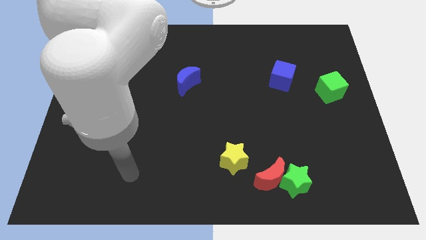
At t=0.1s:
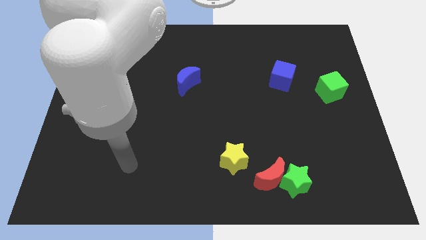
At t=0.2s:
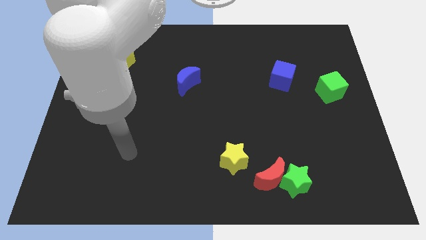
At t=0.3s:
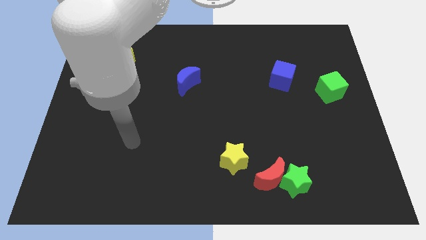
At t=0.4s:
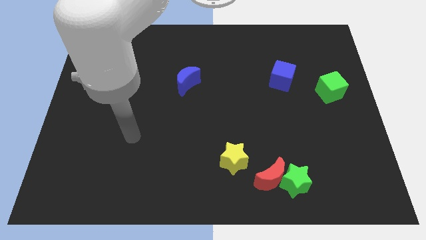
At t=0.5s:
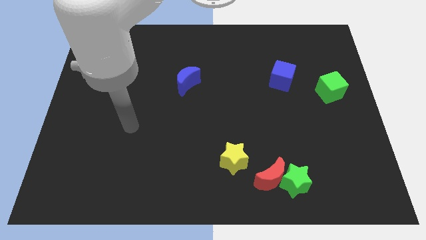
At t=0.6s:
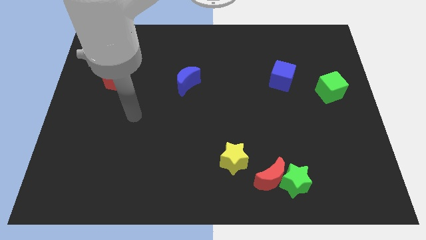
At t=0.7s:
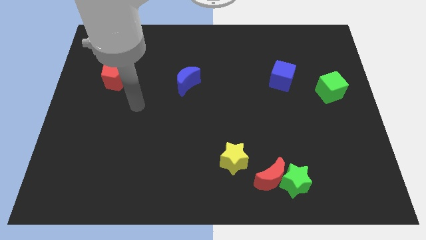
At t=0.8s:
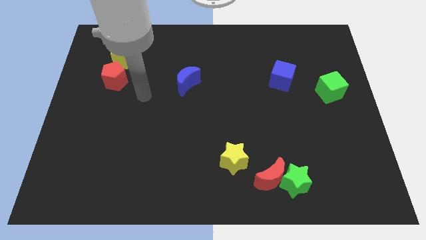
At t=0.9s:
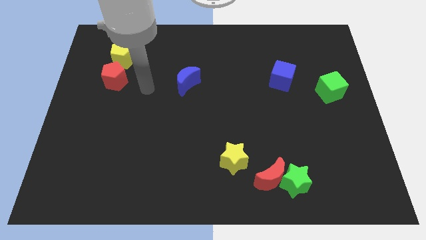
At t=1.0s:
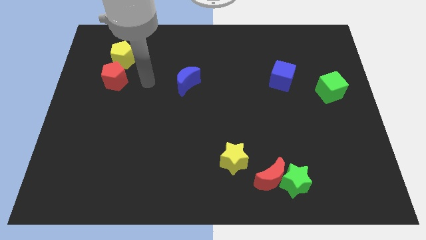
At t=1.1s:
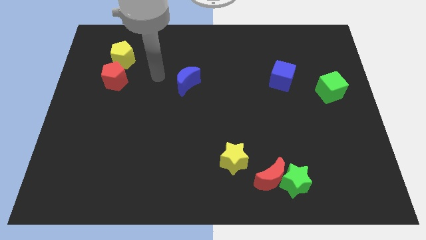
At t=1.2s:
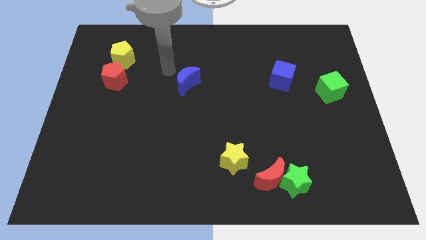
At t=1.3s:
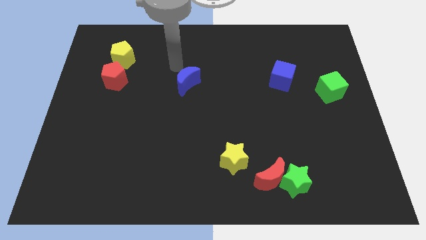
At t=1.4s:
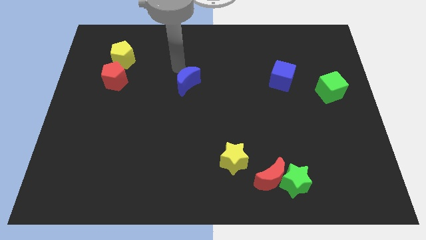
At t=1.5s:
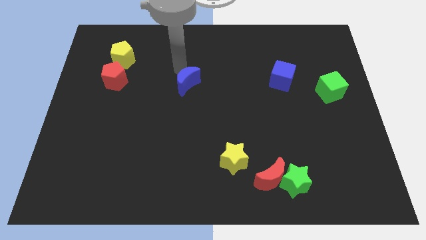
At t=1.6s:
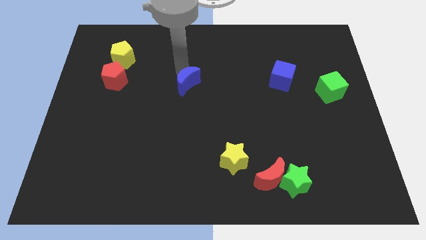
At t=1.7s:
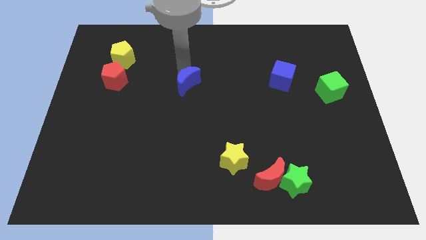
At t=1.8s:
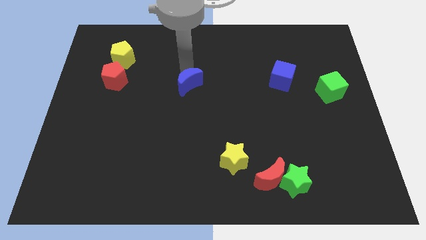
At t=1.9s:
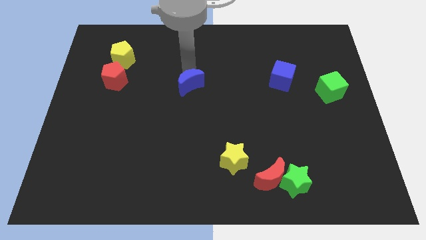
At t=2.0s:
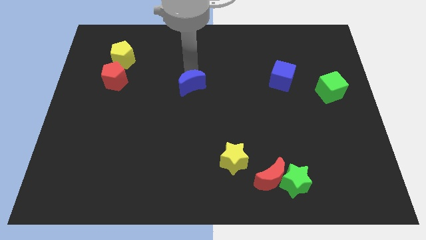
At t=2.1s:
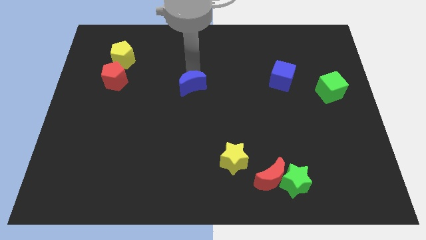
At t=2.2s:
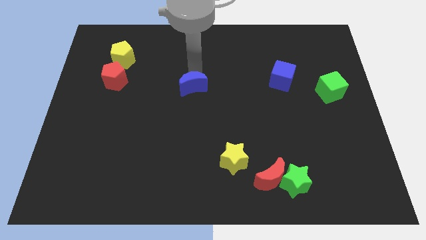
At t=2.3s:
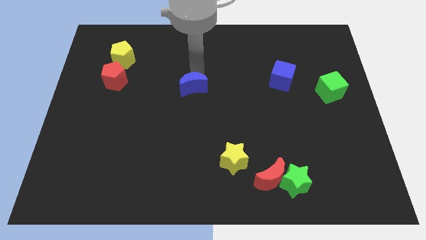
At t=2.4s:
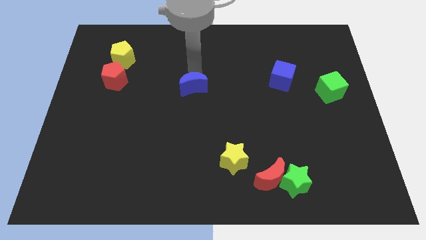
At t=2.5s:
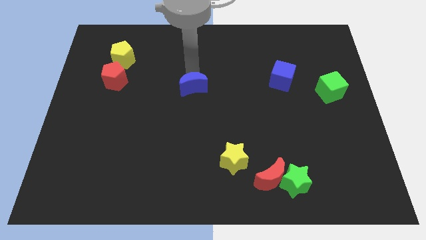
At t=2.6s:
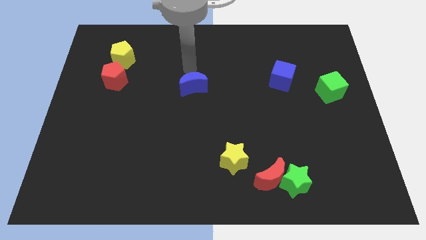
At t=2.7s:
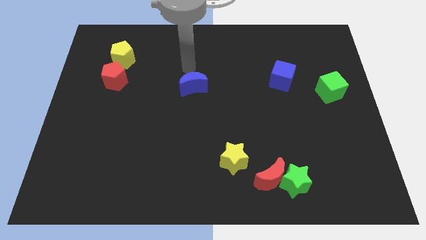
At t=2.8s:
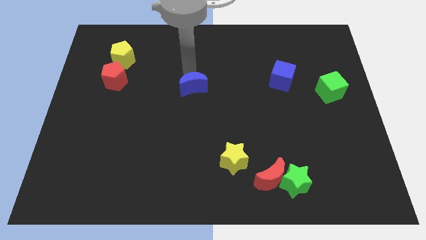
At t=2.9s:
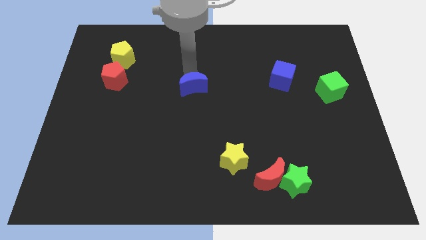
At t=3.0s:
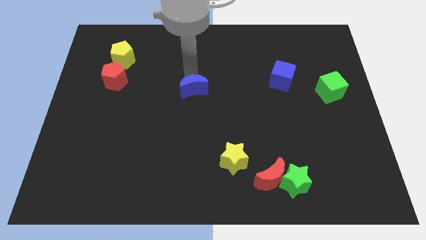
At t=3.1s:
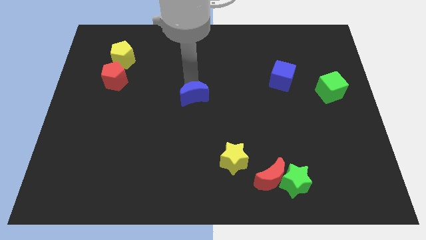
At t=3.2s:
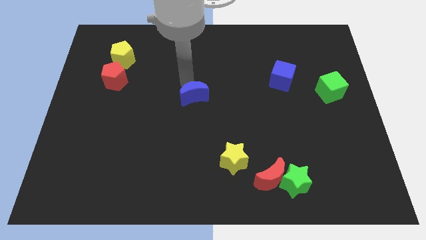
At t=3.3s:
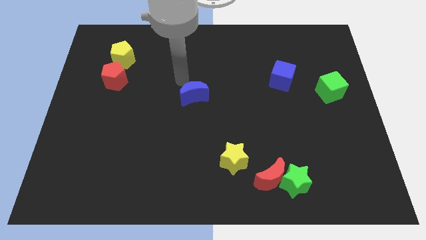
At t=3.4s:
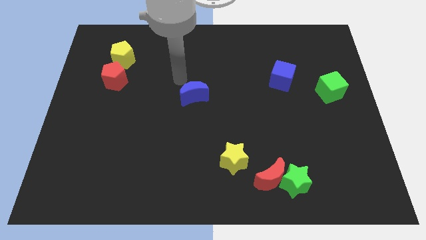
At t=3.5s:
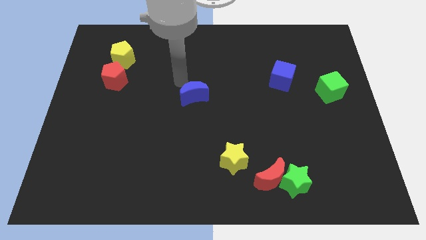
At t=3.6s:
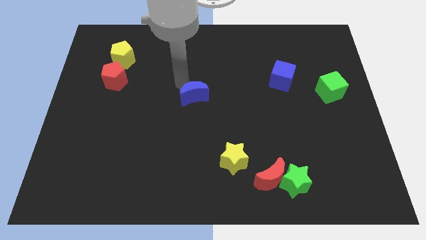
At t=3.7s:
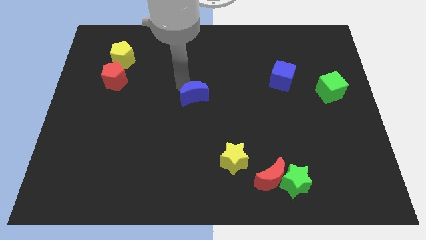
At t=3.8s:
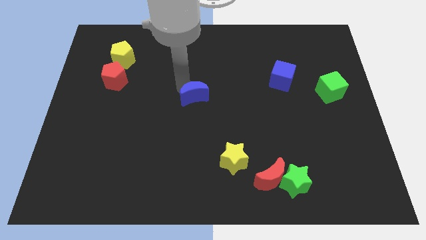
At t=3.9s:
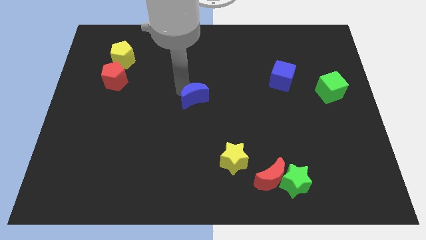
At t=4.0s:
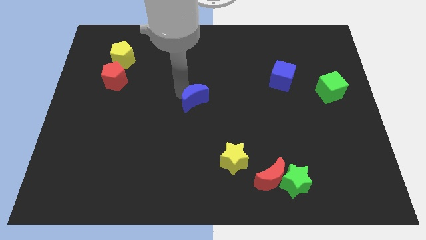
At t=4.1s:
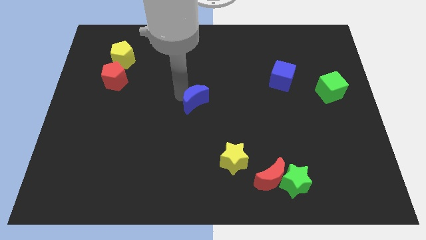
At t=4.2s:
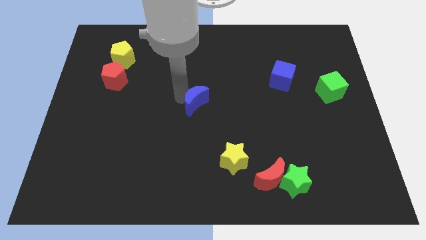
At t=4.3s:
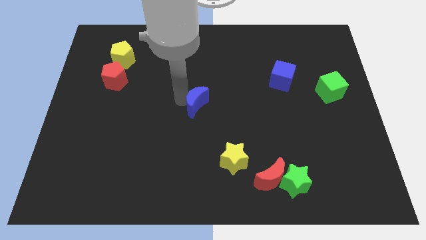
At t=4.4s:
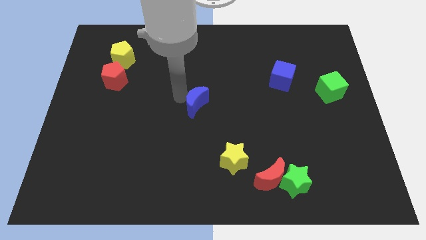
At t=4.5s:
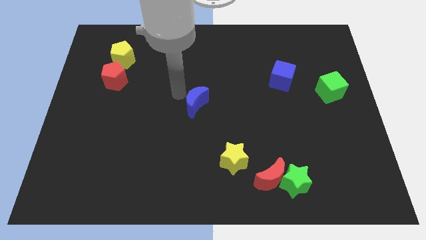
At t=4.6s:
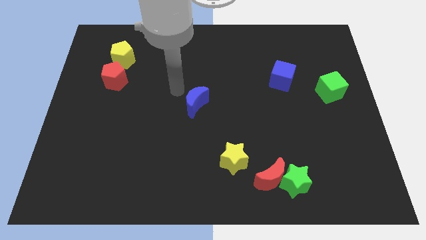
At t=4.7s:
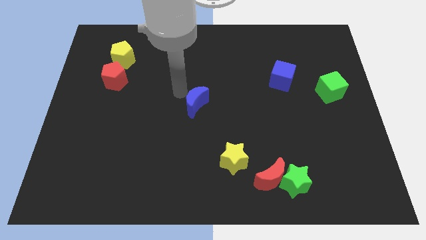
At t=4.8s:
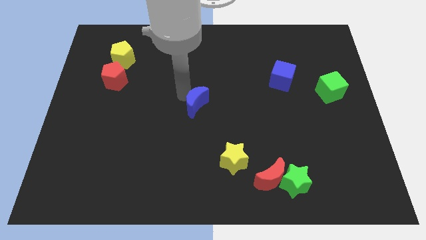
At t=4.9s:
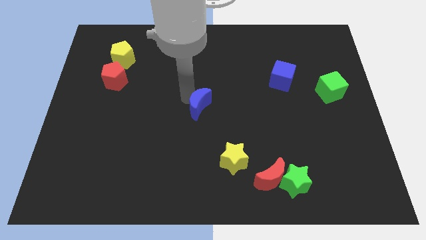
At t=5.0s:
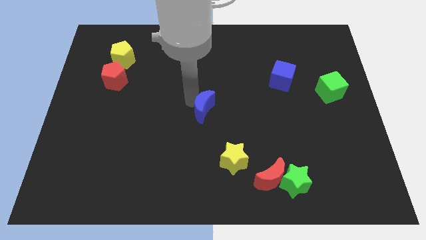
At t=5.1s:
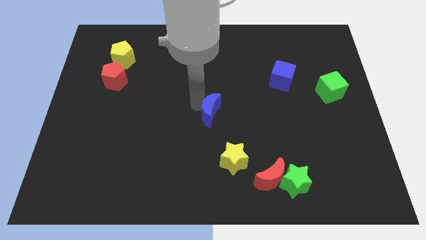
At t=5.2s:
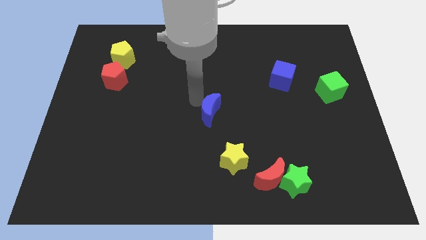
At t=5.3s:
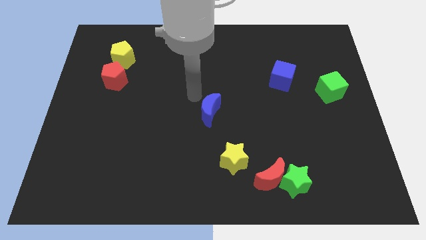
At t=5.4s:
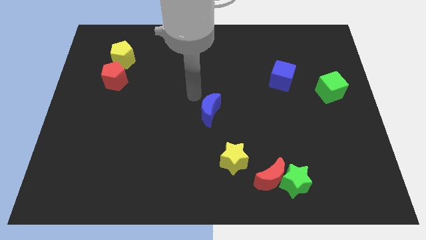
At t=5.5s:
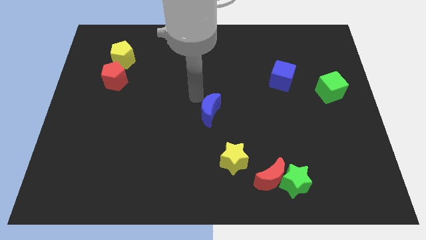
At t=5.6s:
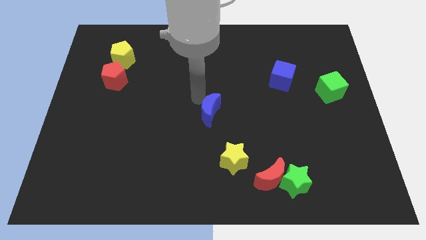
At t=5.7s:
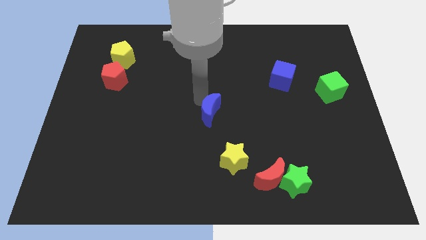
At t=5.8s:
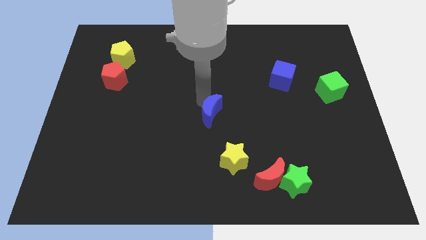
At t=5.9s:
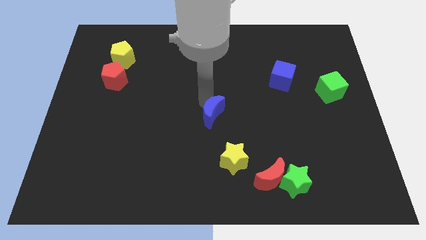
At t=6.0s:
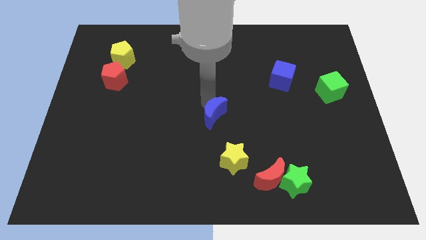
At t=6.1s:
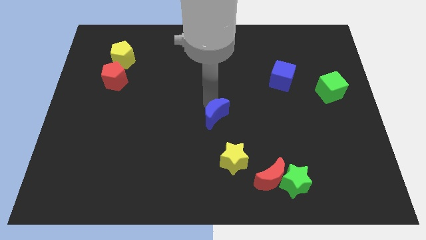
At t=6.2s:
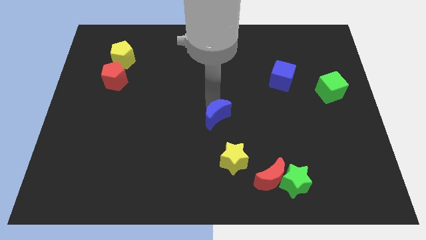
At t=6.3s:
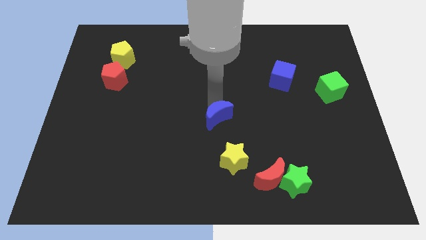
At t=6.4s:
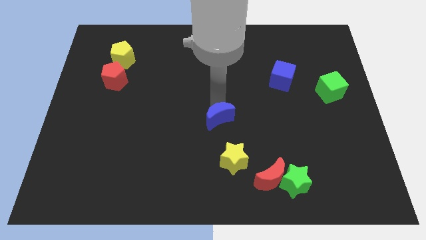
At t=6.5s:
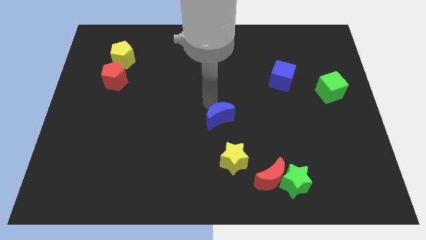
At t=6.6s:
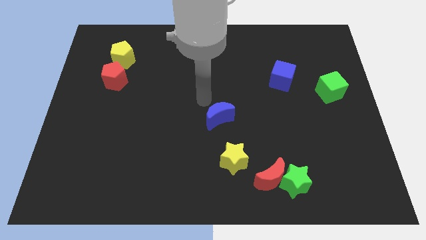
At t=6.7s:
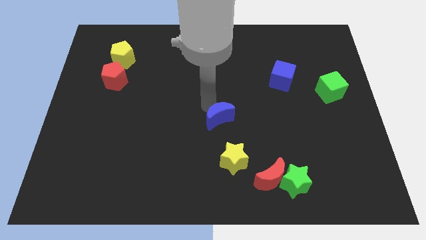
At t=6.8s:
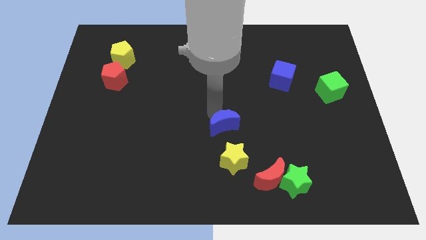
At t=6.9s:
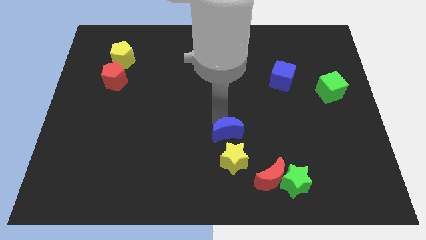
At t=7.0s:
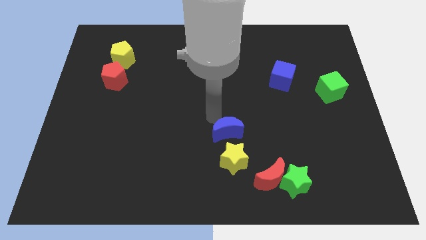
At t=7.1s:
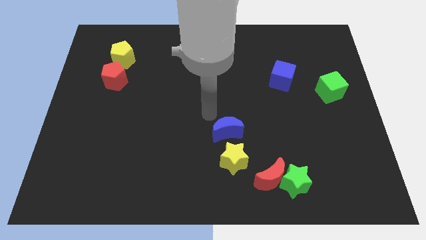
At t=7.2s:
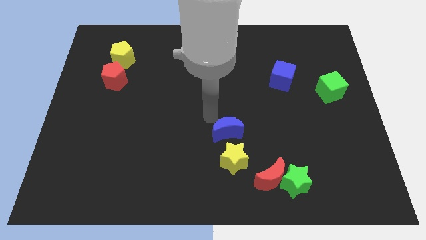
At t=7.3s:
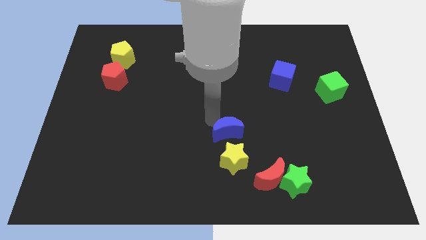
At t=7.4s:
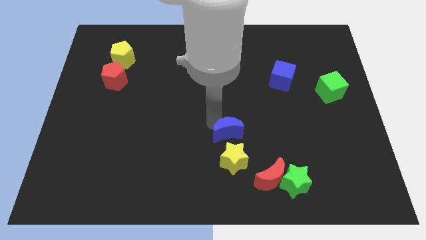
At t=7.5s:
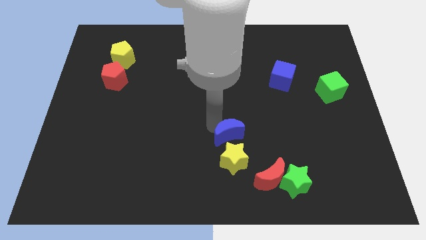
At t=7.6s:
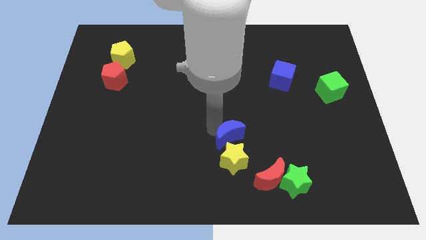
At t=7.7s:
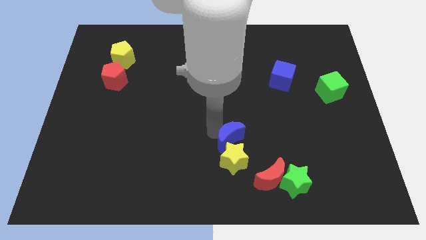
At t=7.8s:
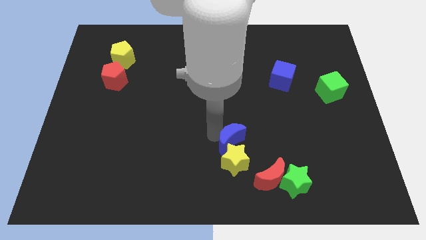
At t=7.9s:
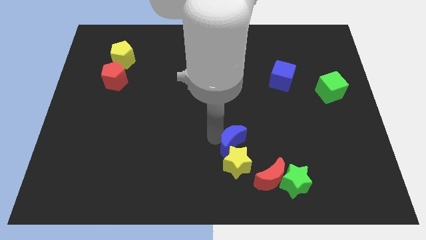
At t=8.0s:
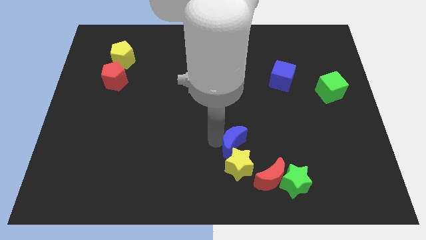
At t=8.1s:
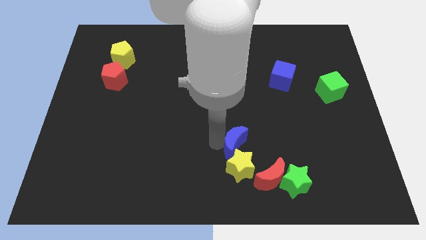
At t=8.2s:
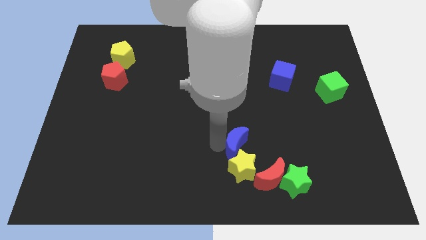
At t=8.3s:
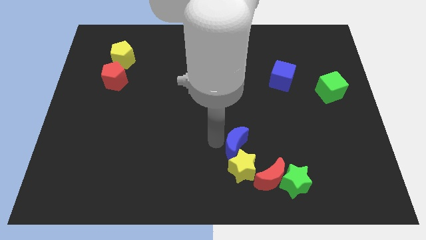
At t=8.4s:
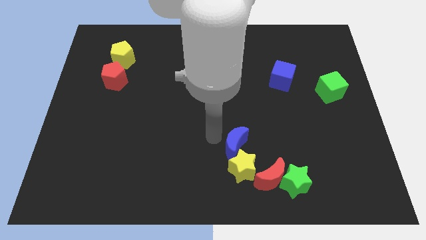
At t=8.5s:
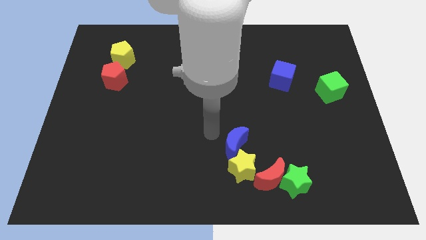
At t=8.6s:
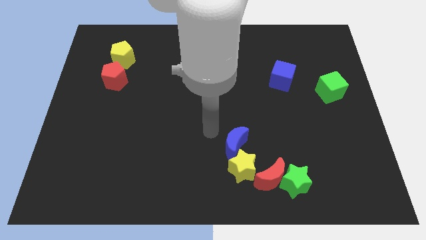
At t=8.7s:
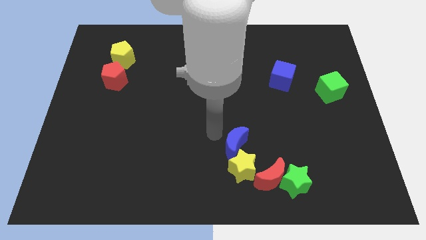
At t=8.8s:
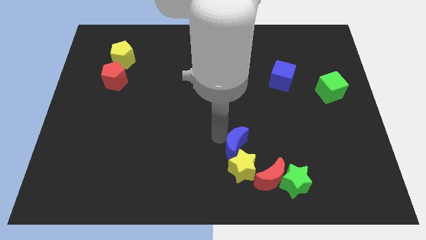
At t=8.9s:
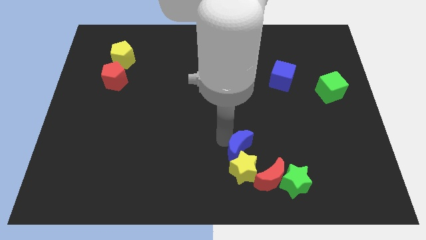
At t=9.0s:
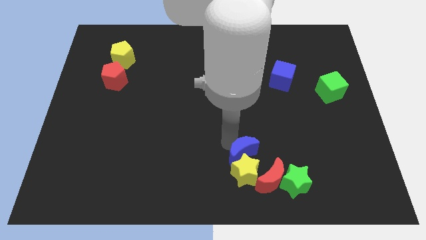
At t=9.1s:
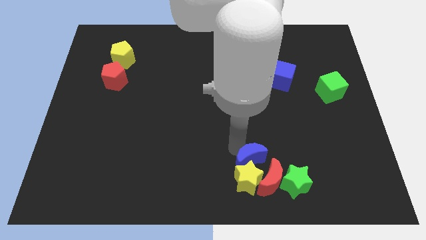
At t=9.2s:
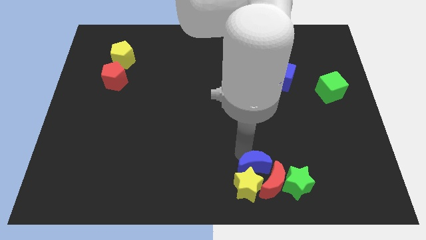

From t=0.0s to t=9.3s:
slide the blue moon to the red moon
